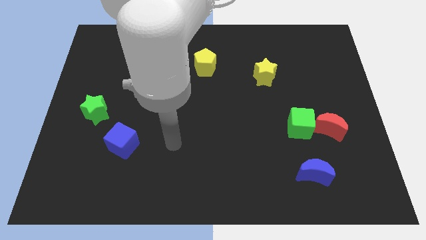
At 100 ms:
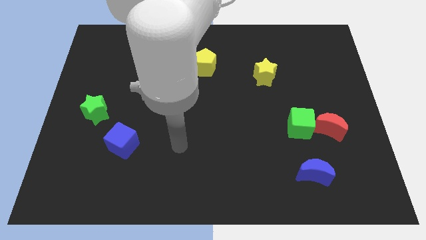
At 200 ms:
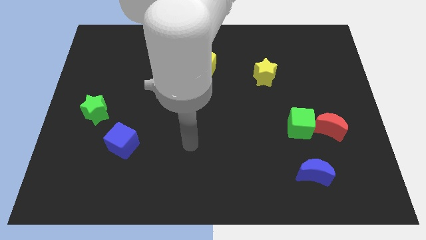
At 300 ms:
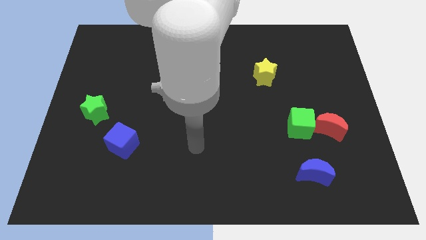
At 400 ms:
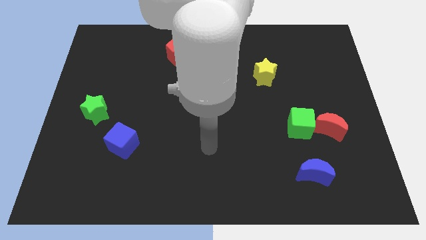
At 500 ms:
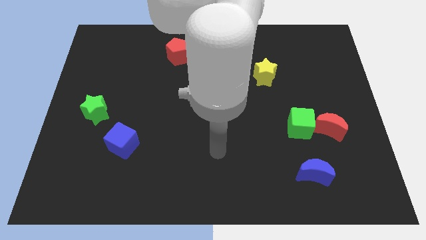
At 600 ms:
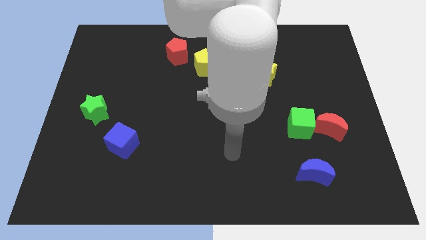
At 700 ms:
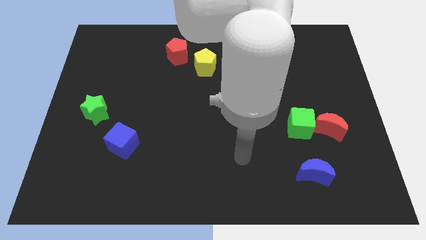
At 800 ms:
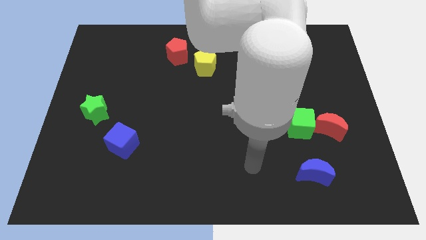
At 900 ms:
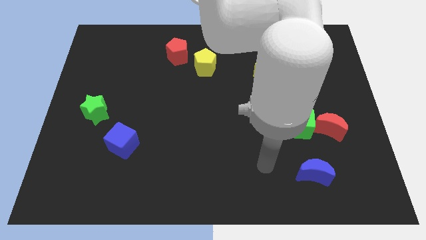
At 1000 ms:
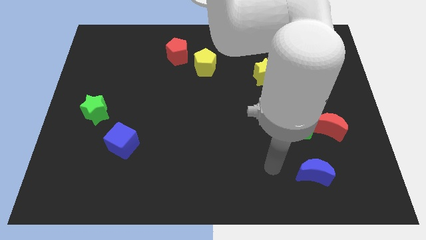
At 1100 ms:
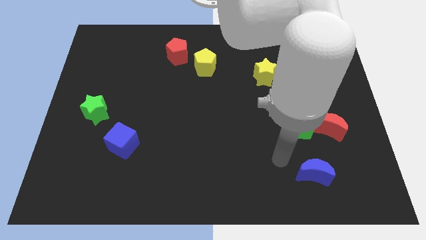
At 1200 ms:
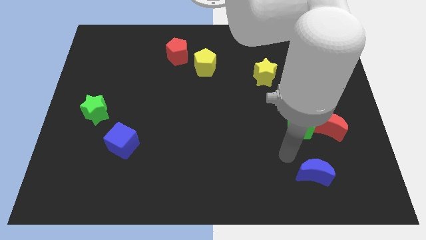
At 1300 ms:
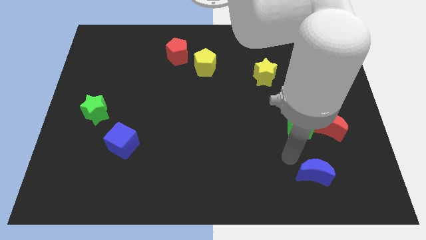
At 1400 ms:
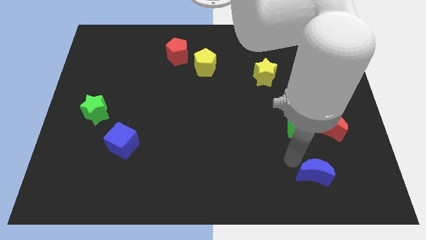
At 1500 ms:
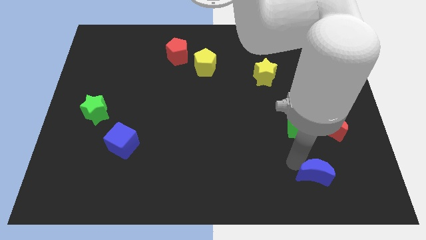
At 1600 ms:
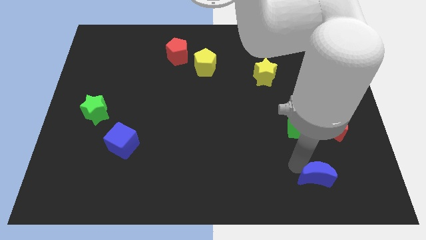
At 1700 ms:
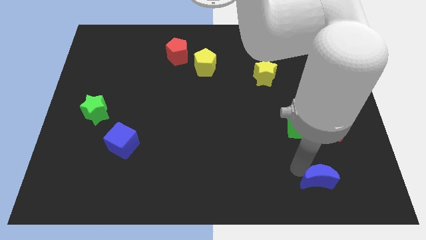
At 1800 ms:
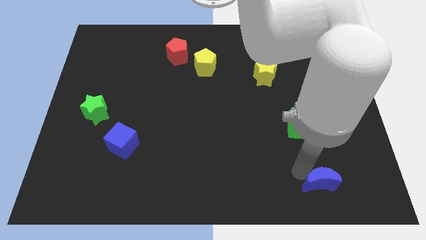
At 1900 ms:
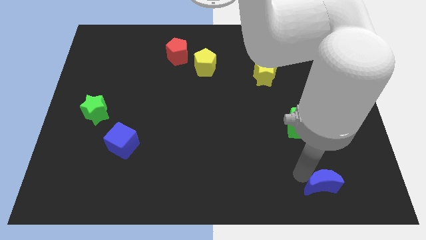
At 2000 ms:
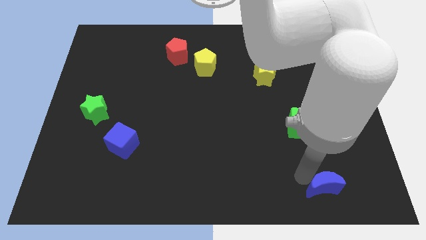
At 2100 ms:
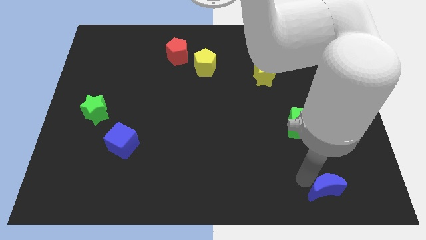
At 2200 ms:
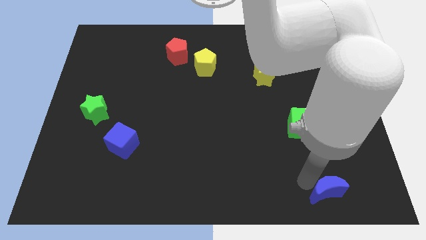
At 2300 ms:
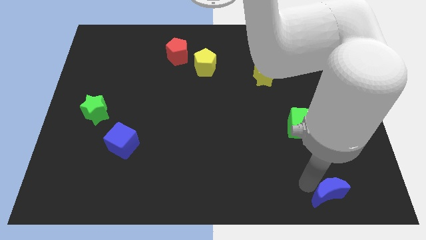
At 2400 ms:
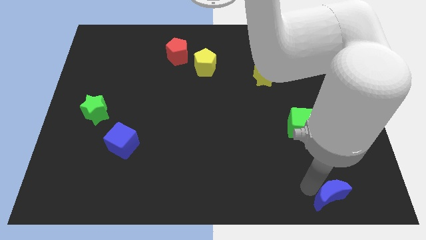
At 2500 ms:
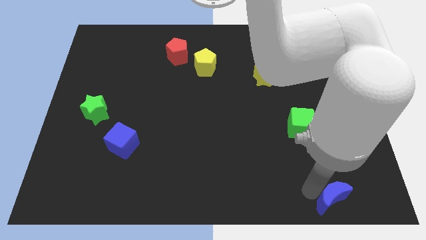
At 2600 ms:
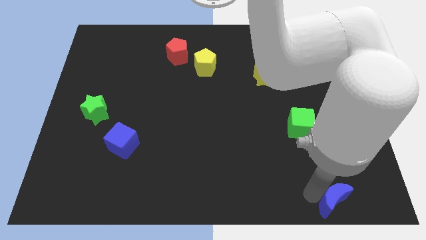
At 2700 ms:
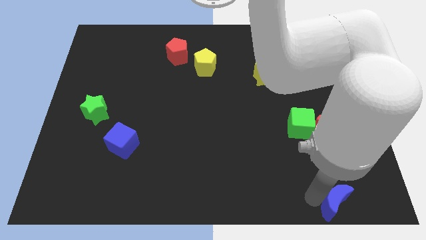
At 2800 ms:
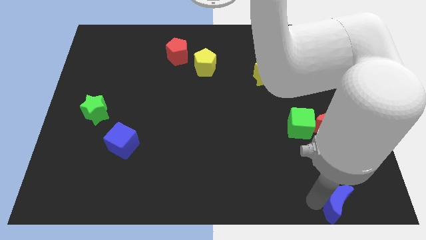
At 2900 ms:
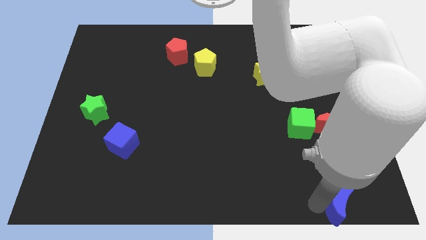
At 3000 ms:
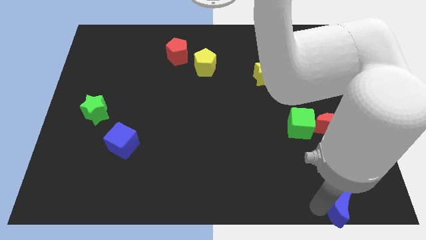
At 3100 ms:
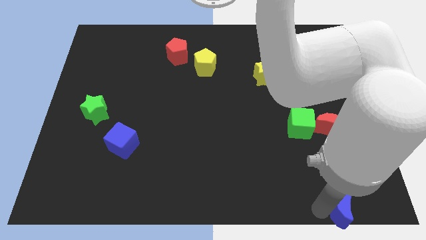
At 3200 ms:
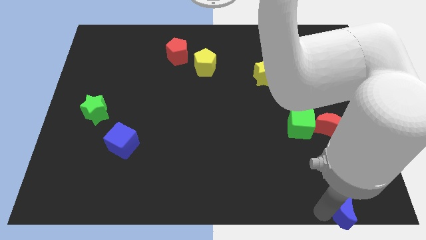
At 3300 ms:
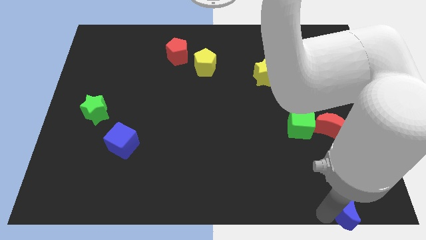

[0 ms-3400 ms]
put the blue moon to the bottom right of the board

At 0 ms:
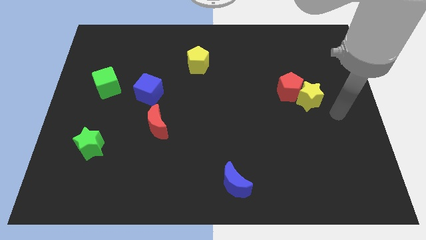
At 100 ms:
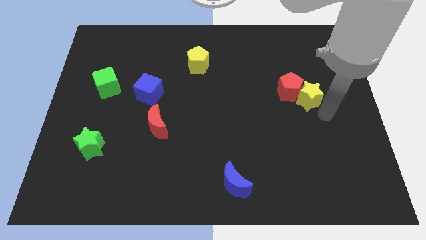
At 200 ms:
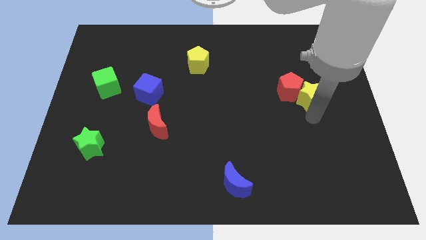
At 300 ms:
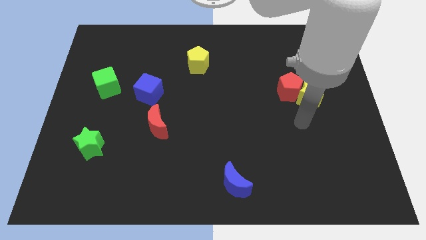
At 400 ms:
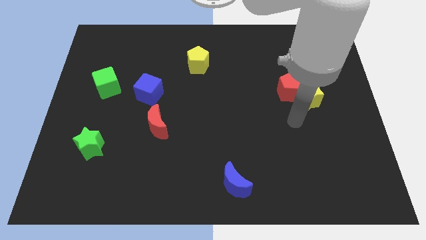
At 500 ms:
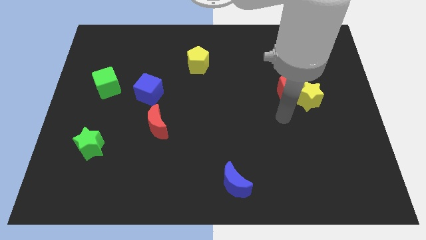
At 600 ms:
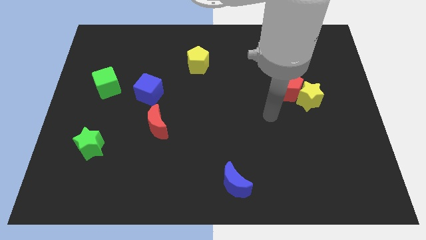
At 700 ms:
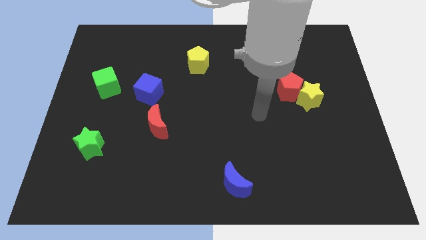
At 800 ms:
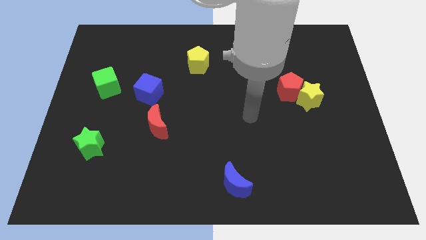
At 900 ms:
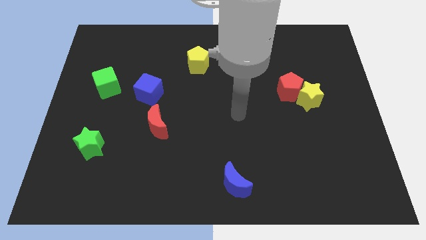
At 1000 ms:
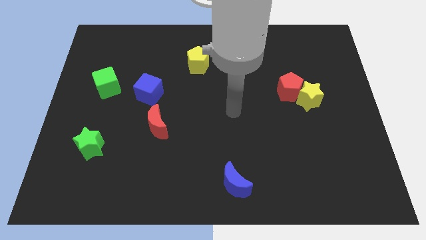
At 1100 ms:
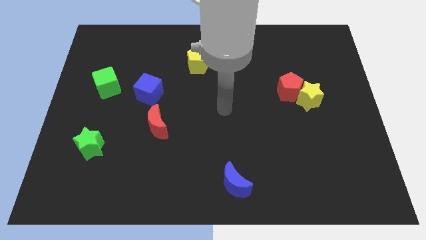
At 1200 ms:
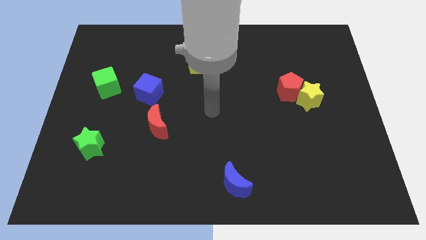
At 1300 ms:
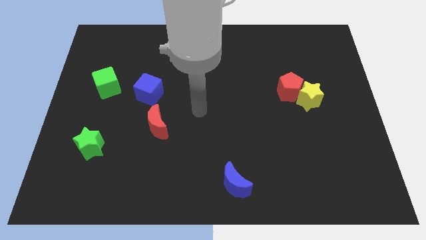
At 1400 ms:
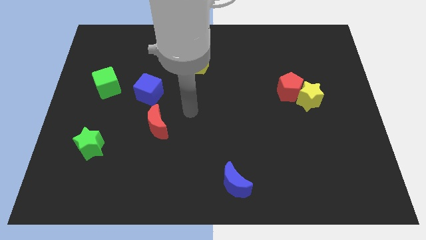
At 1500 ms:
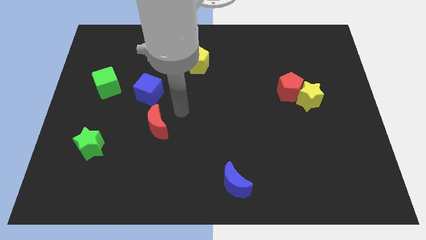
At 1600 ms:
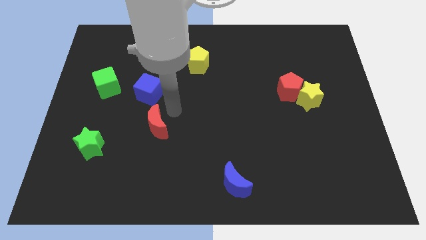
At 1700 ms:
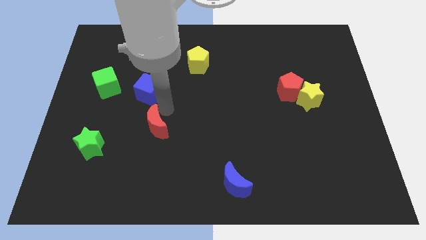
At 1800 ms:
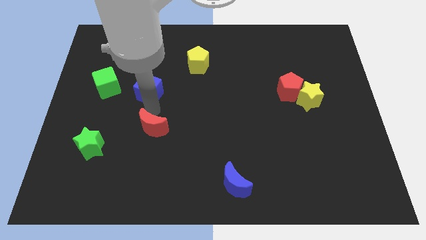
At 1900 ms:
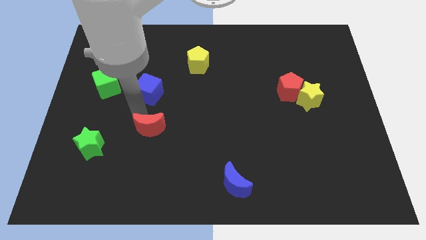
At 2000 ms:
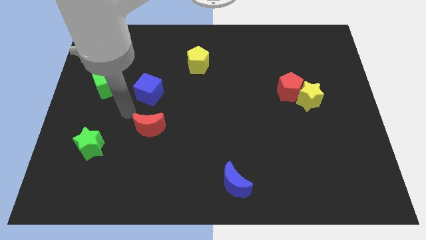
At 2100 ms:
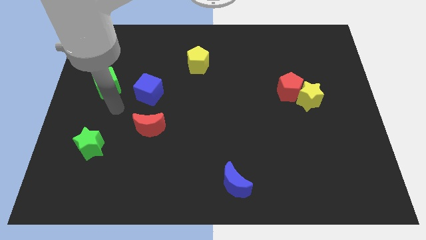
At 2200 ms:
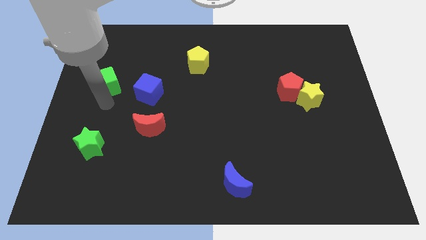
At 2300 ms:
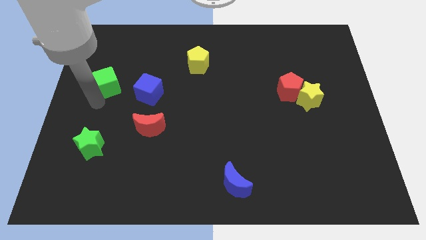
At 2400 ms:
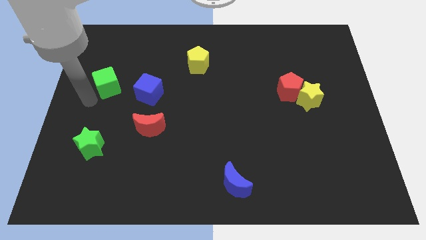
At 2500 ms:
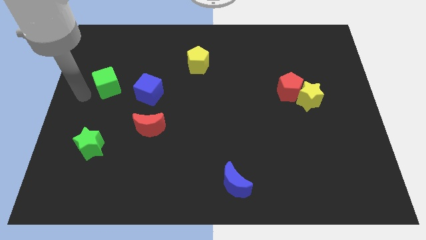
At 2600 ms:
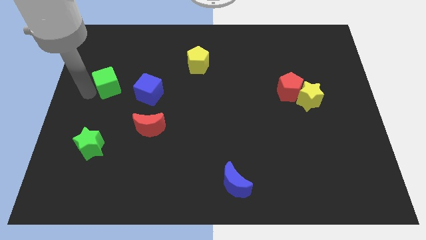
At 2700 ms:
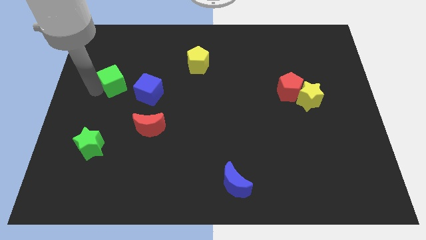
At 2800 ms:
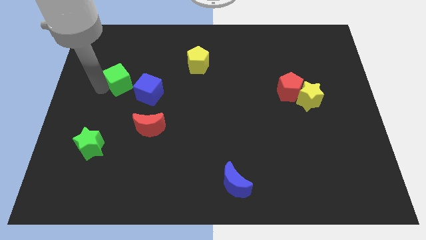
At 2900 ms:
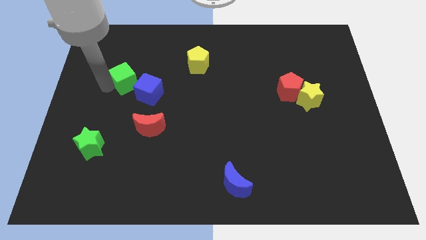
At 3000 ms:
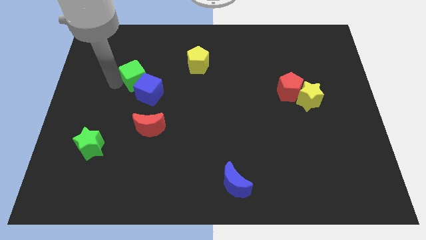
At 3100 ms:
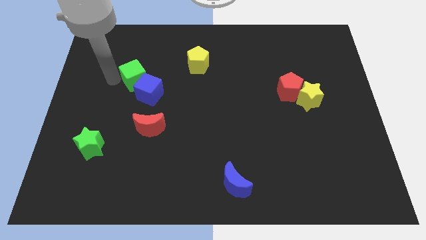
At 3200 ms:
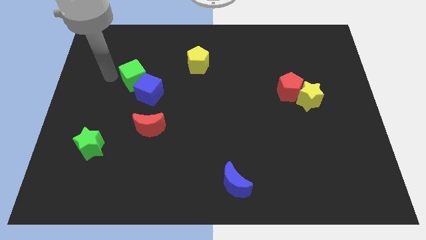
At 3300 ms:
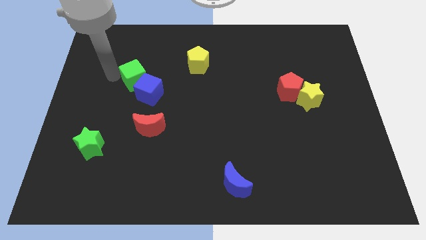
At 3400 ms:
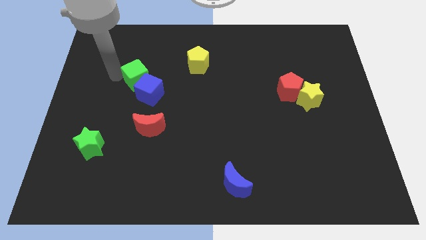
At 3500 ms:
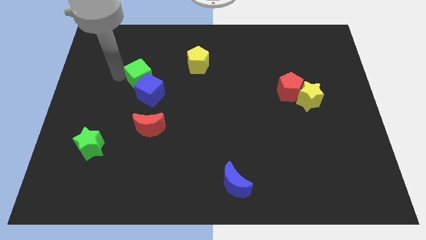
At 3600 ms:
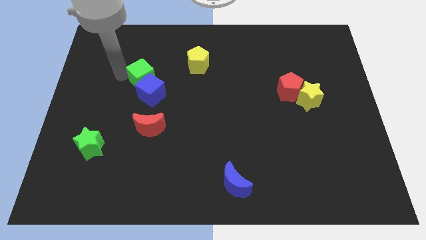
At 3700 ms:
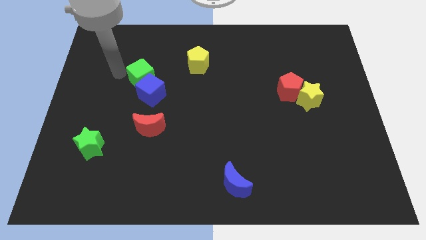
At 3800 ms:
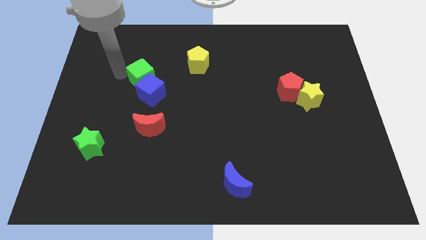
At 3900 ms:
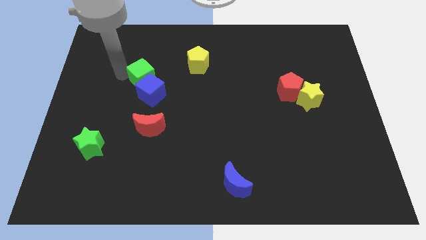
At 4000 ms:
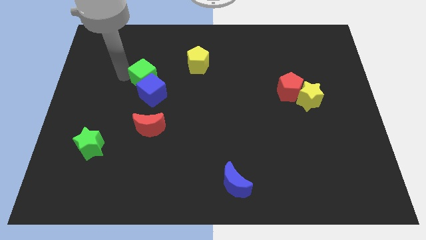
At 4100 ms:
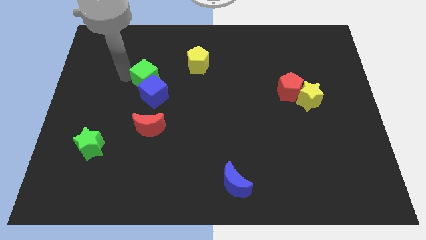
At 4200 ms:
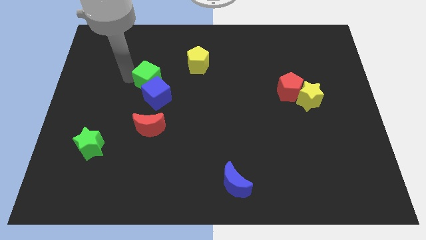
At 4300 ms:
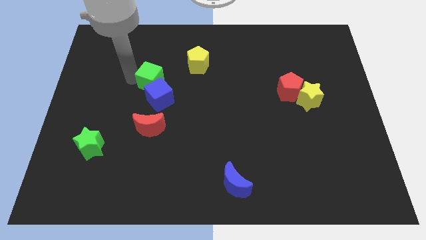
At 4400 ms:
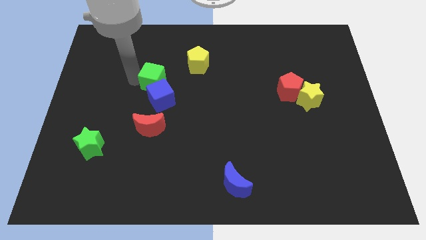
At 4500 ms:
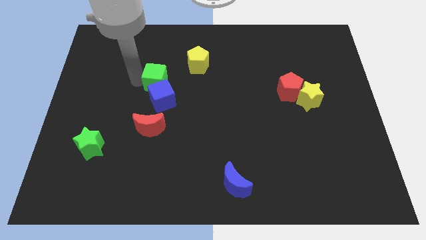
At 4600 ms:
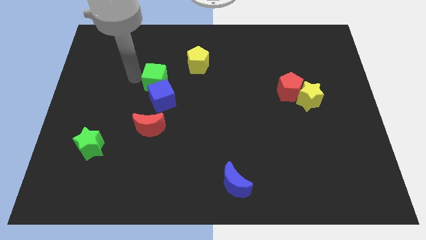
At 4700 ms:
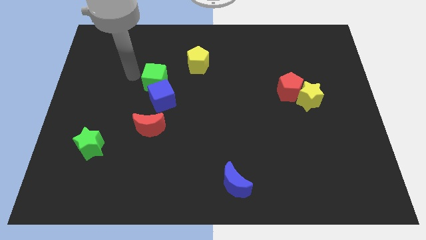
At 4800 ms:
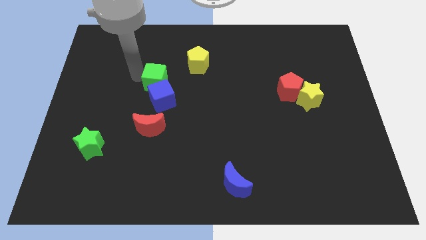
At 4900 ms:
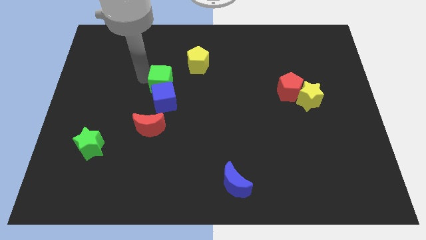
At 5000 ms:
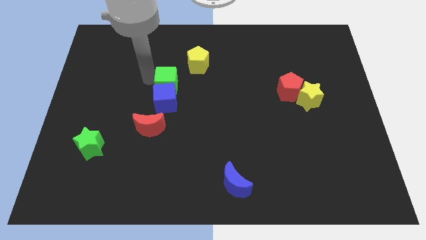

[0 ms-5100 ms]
push the green cube to the center of the board
